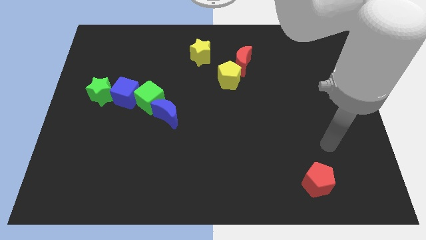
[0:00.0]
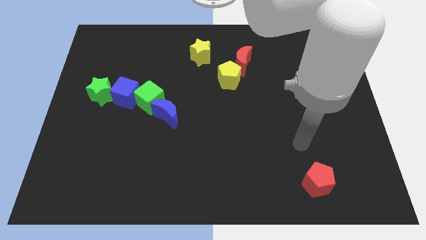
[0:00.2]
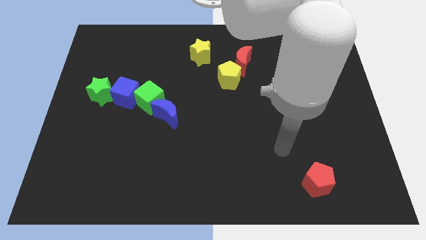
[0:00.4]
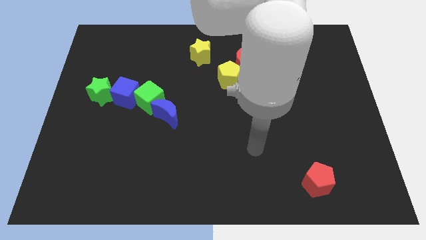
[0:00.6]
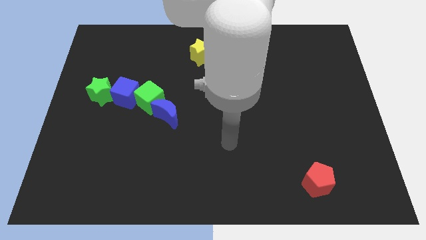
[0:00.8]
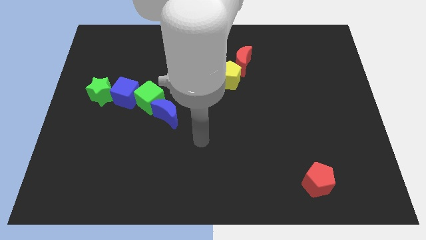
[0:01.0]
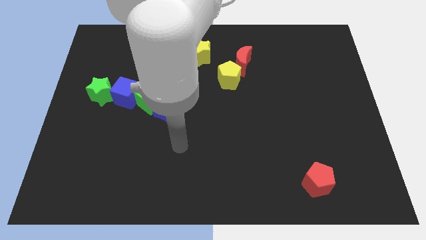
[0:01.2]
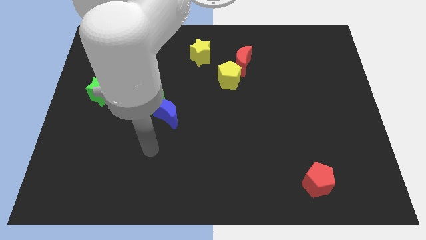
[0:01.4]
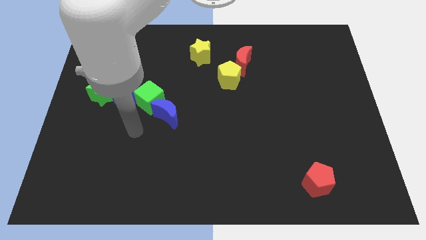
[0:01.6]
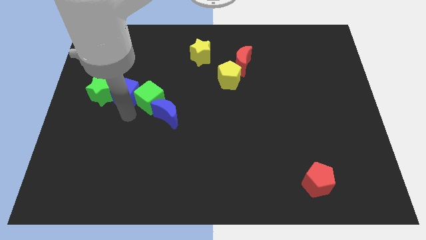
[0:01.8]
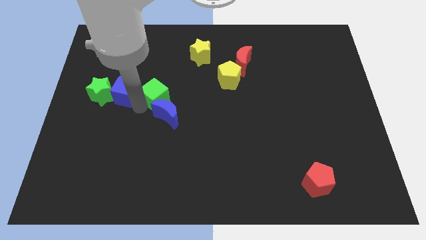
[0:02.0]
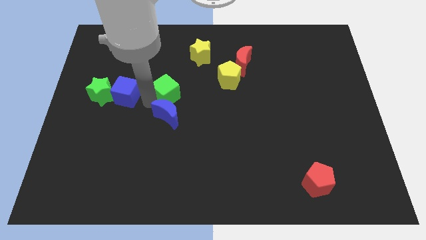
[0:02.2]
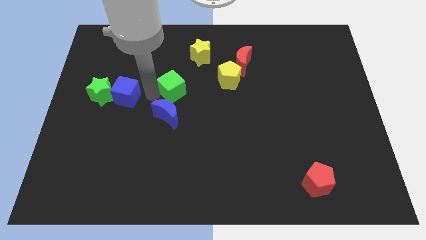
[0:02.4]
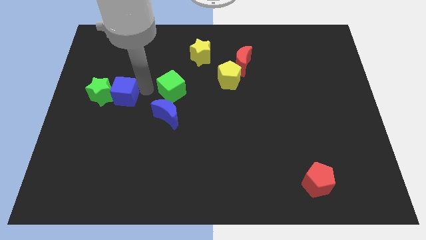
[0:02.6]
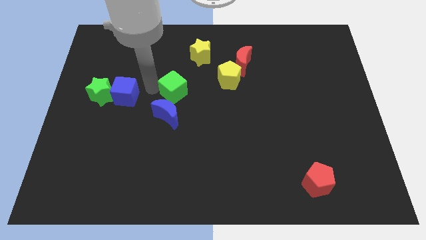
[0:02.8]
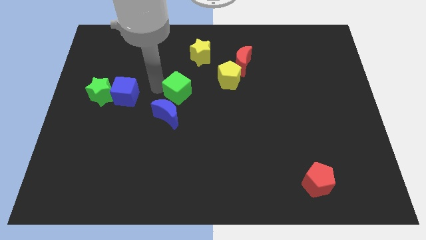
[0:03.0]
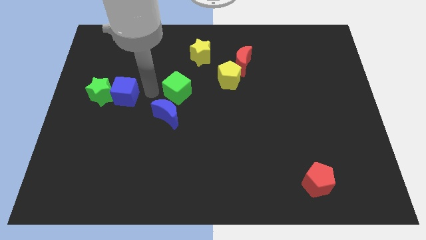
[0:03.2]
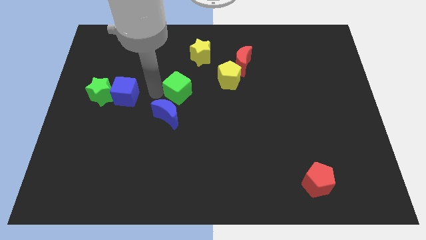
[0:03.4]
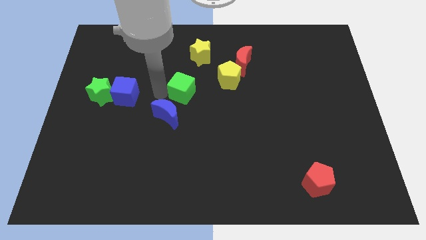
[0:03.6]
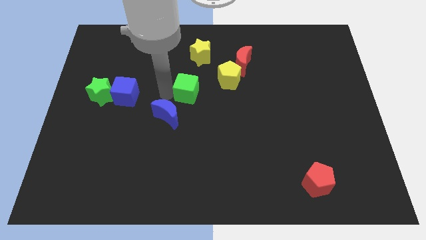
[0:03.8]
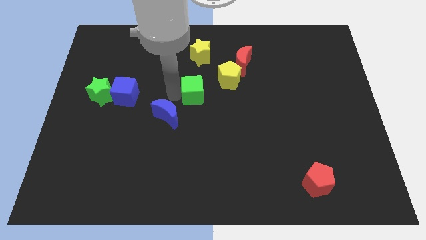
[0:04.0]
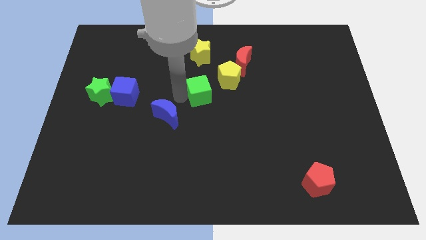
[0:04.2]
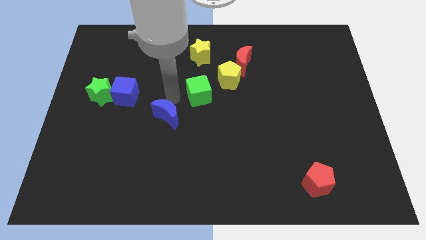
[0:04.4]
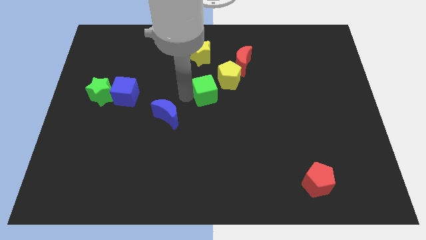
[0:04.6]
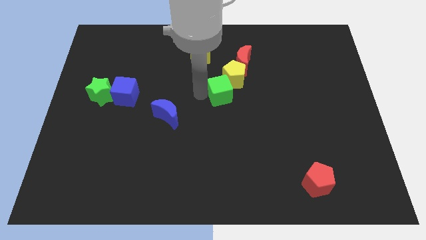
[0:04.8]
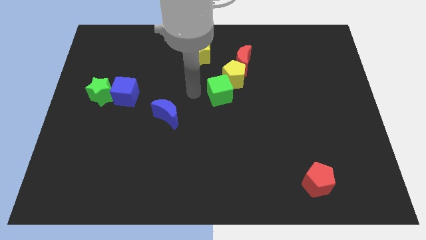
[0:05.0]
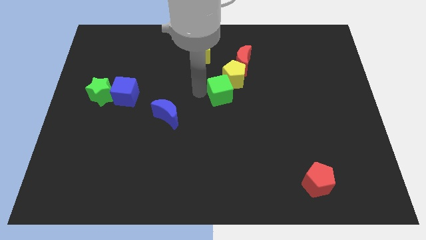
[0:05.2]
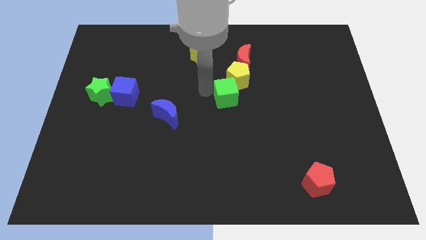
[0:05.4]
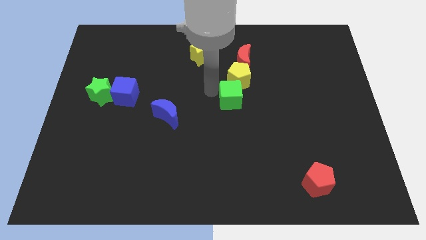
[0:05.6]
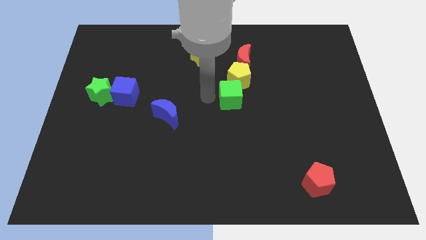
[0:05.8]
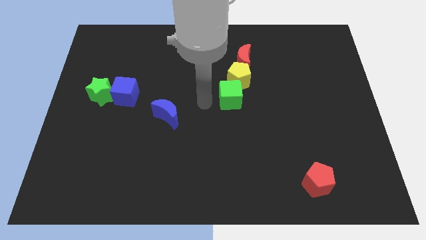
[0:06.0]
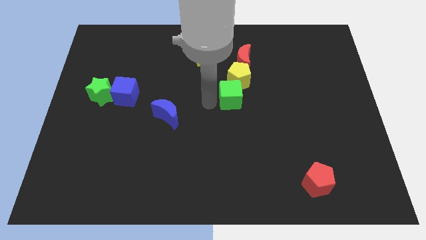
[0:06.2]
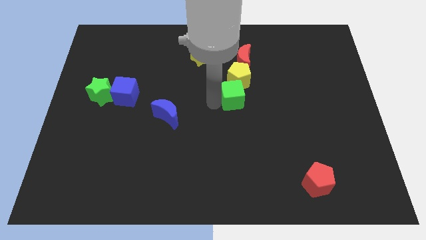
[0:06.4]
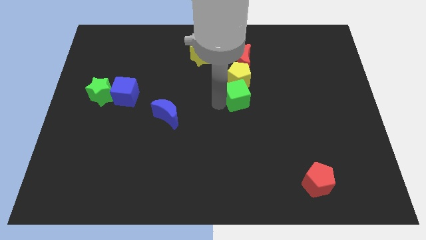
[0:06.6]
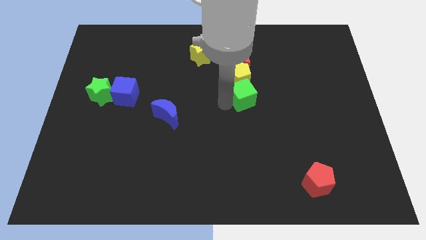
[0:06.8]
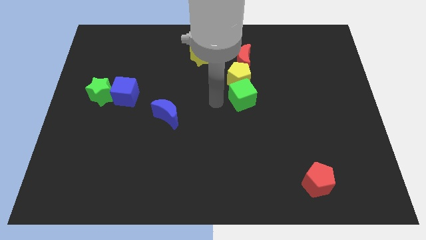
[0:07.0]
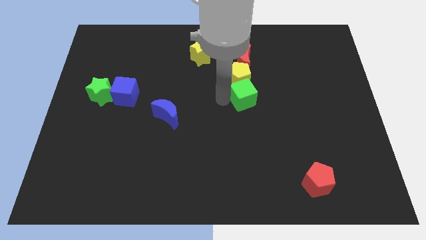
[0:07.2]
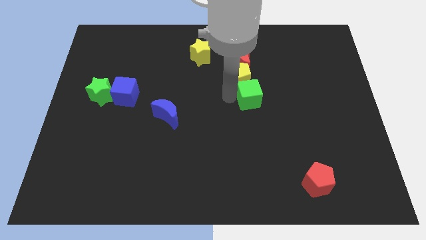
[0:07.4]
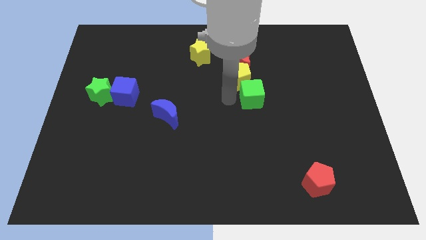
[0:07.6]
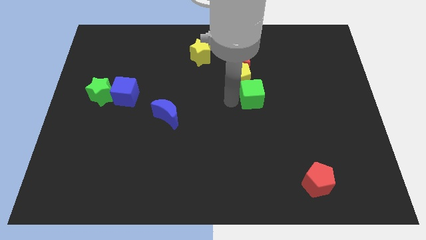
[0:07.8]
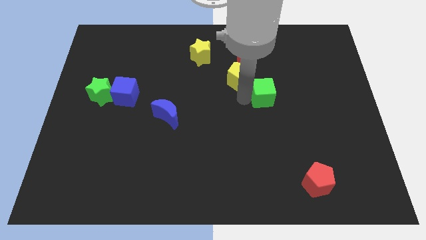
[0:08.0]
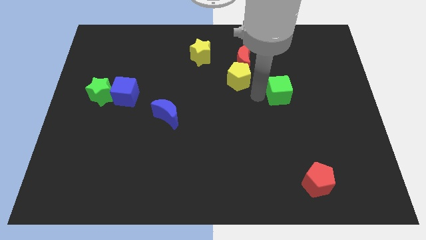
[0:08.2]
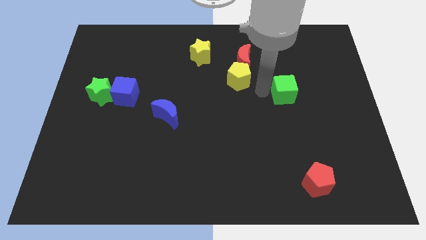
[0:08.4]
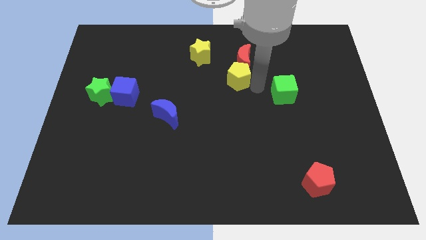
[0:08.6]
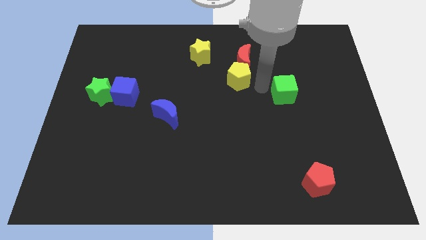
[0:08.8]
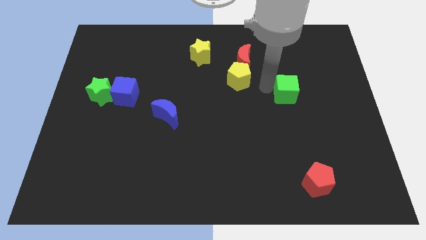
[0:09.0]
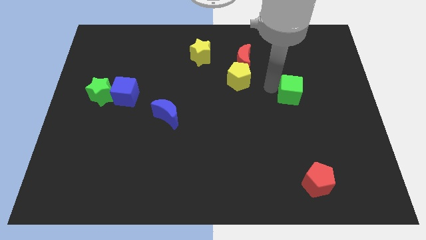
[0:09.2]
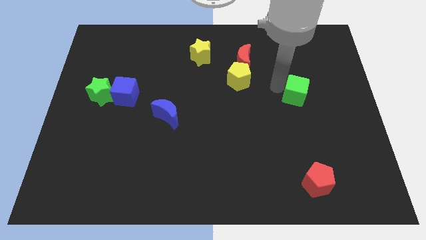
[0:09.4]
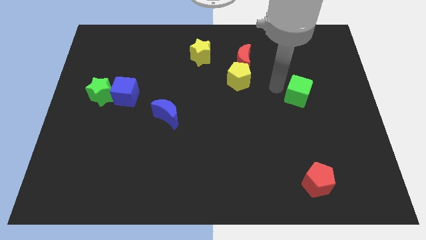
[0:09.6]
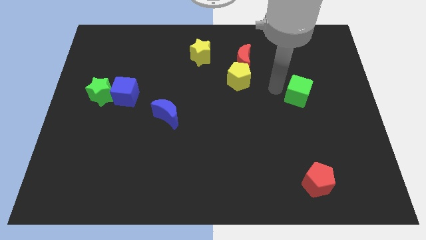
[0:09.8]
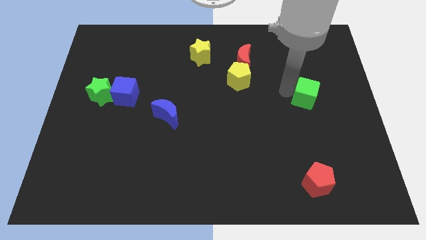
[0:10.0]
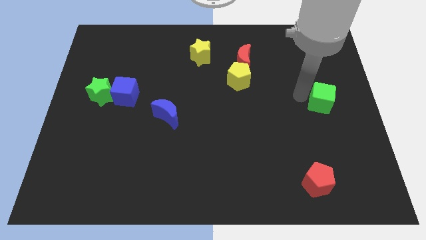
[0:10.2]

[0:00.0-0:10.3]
push the green cube to the center right
